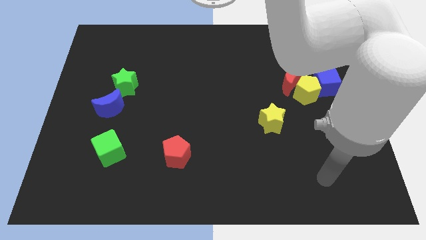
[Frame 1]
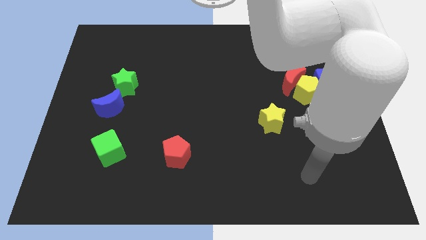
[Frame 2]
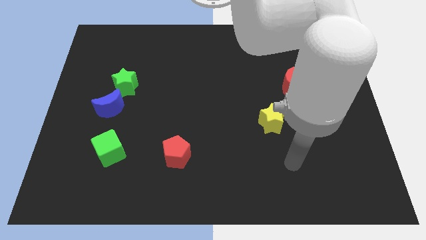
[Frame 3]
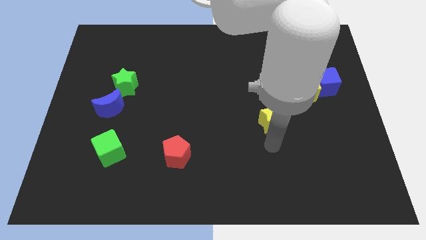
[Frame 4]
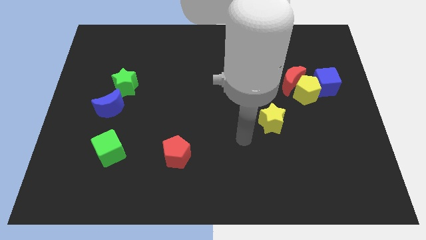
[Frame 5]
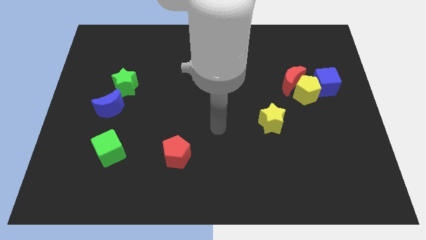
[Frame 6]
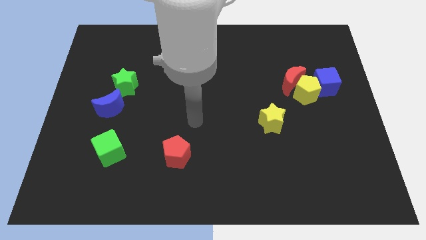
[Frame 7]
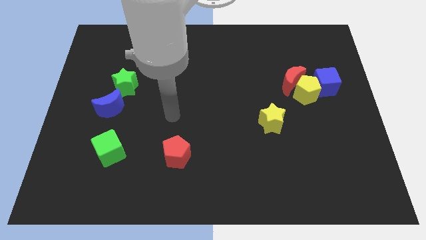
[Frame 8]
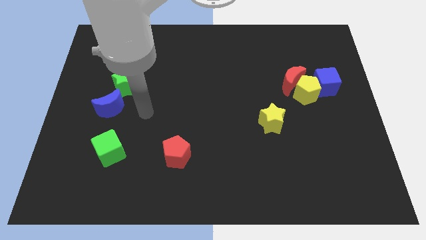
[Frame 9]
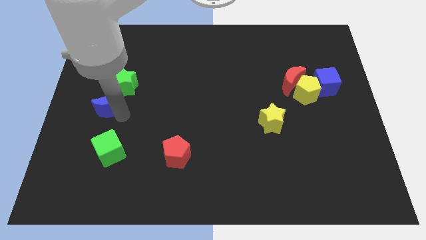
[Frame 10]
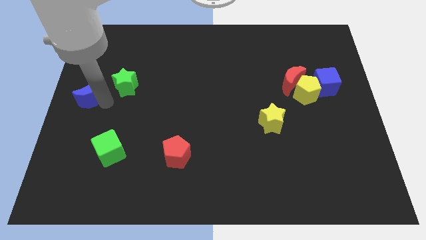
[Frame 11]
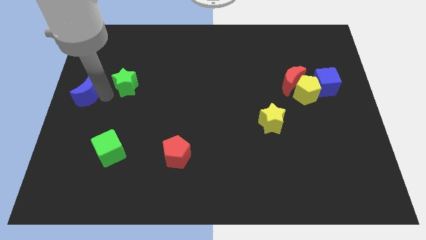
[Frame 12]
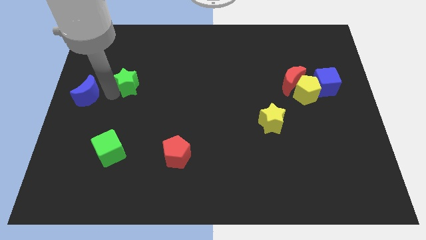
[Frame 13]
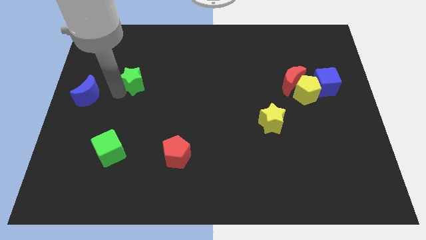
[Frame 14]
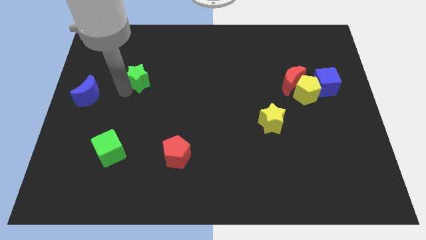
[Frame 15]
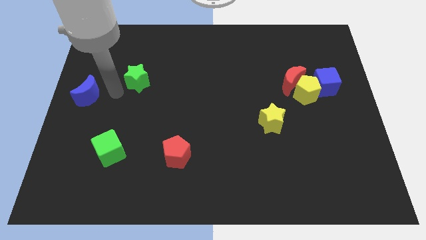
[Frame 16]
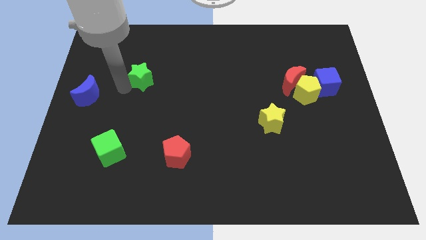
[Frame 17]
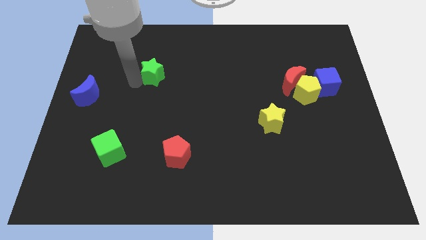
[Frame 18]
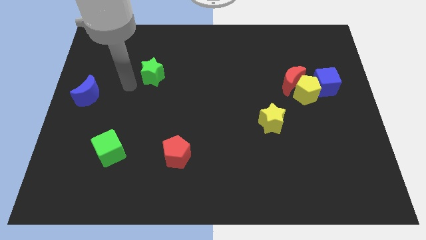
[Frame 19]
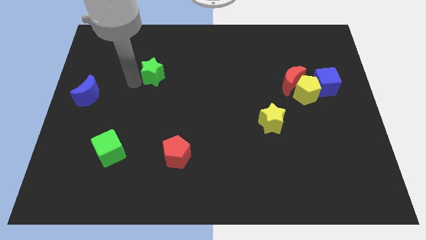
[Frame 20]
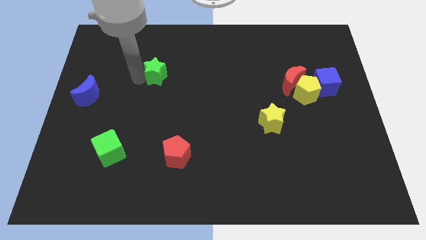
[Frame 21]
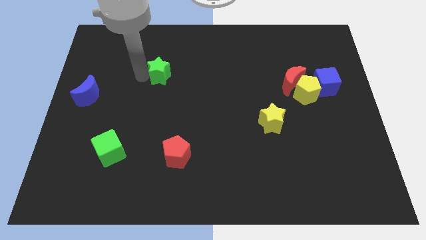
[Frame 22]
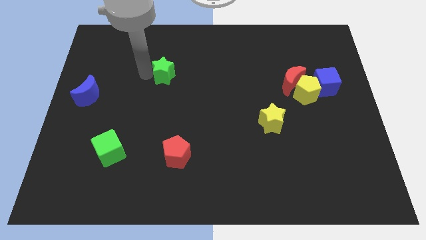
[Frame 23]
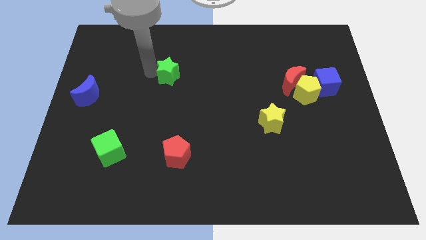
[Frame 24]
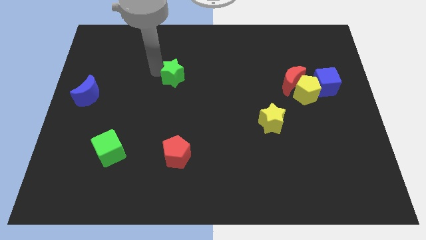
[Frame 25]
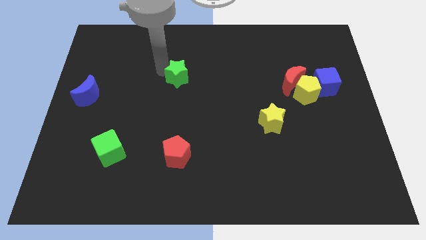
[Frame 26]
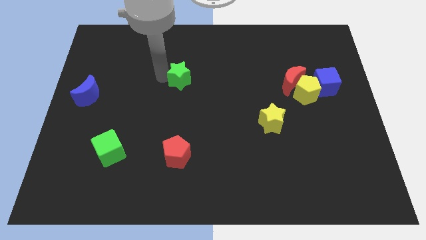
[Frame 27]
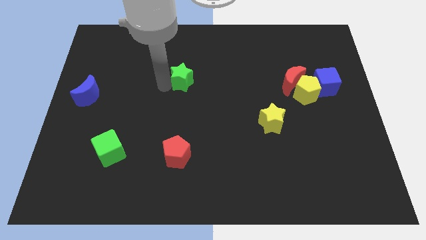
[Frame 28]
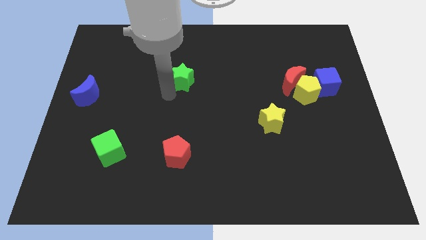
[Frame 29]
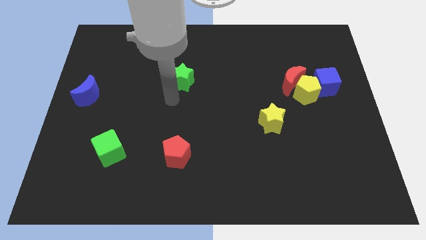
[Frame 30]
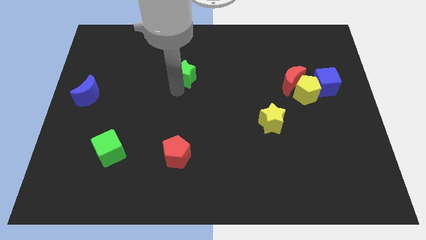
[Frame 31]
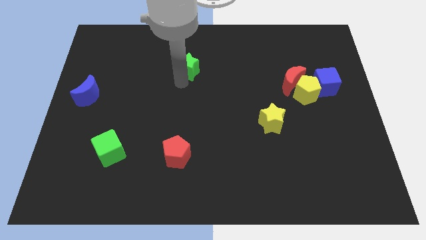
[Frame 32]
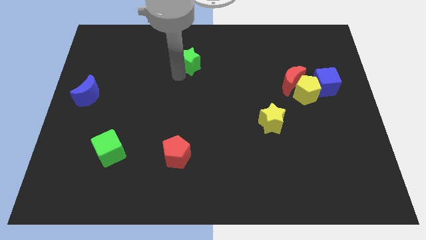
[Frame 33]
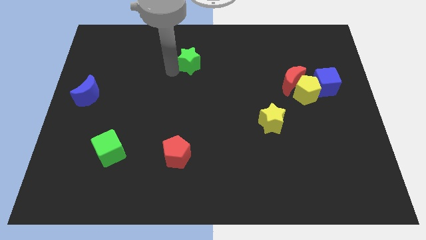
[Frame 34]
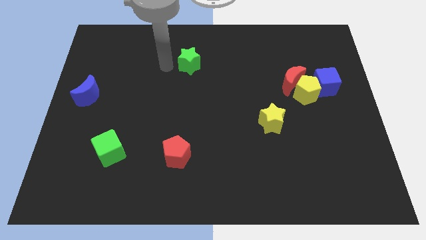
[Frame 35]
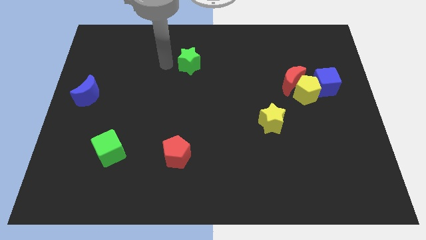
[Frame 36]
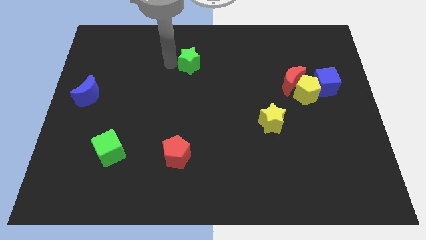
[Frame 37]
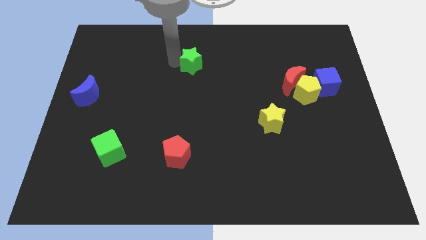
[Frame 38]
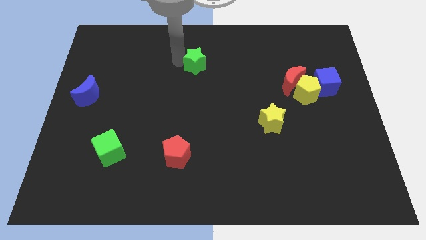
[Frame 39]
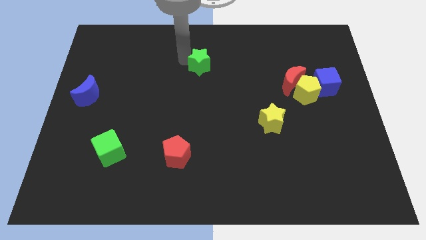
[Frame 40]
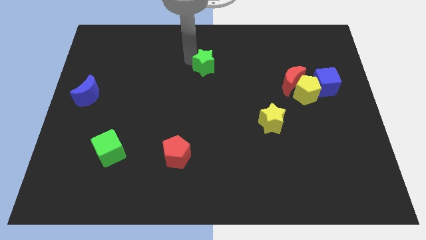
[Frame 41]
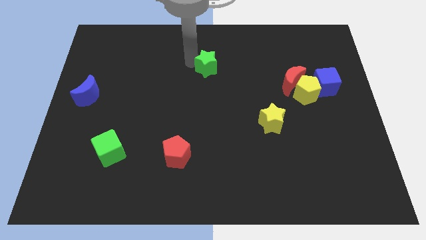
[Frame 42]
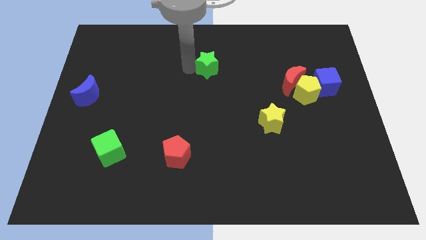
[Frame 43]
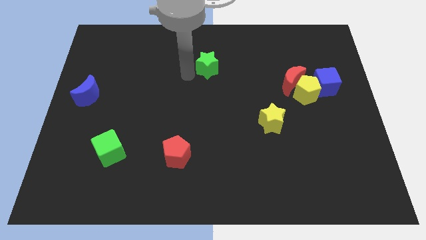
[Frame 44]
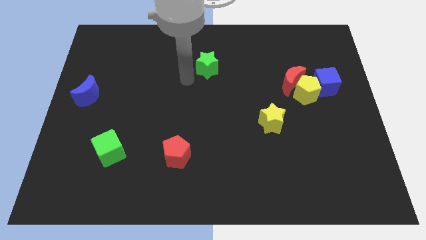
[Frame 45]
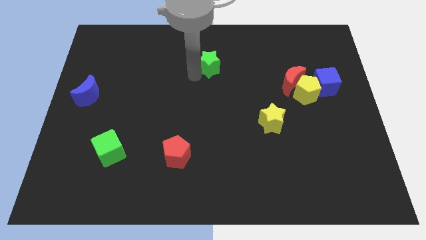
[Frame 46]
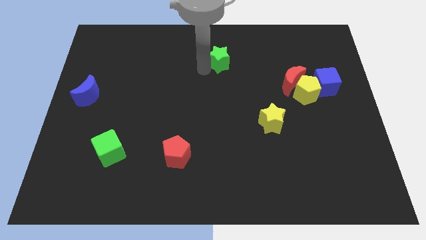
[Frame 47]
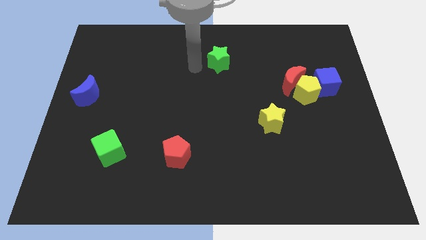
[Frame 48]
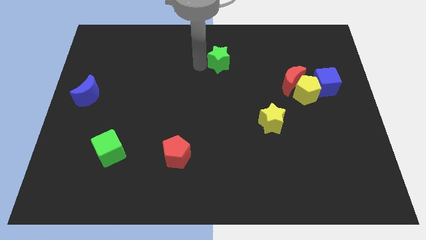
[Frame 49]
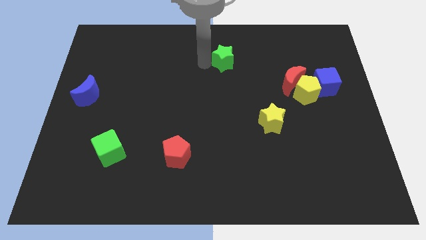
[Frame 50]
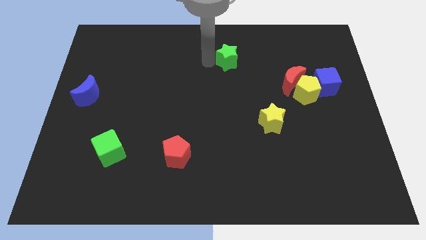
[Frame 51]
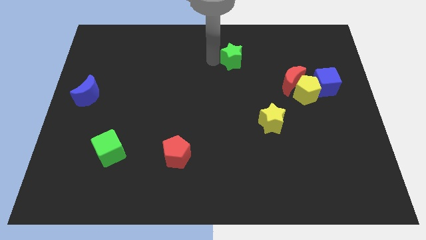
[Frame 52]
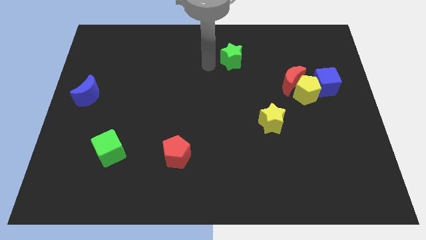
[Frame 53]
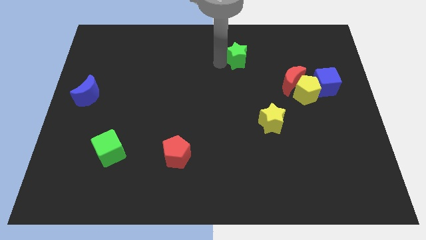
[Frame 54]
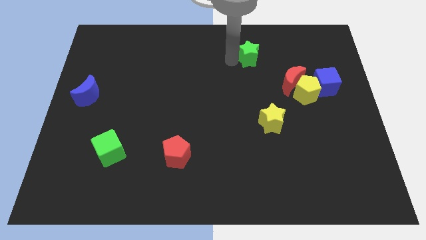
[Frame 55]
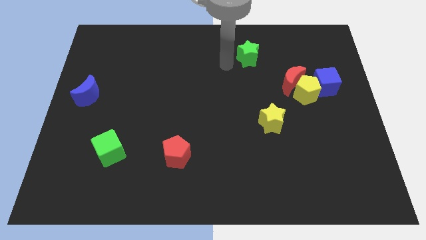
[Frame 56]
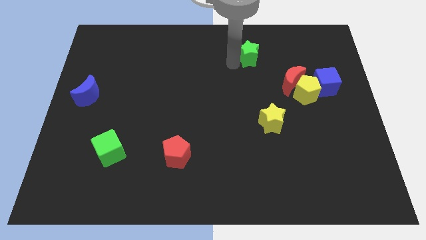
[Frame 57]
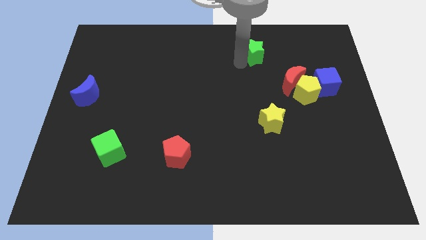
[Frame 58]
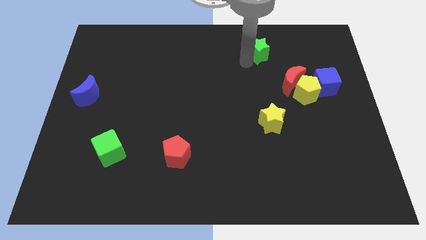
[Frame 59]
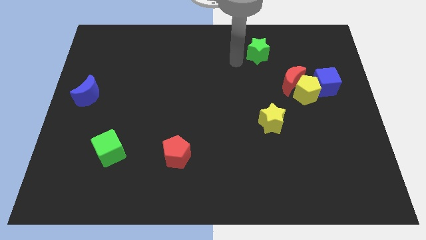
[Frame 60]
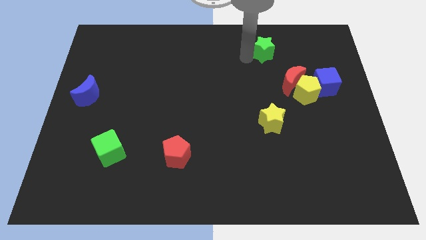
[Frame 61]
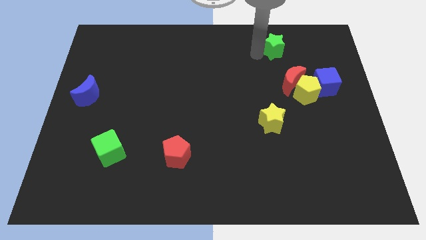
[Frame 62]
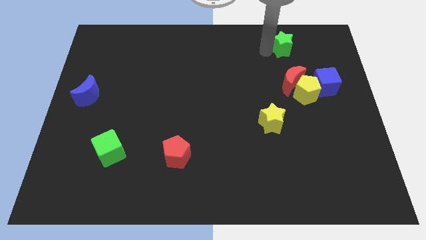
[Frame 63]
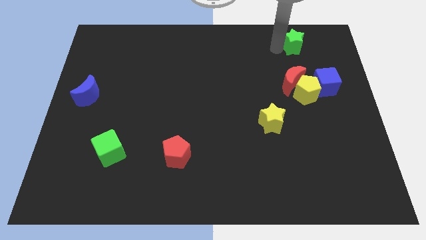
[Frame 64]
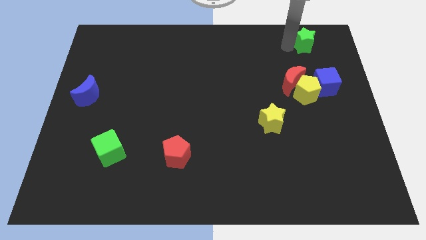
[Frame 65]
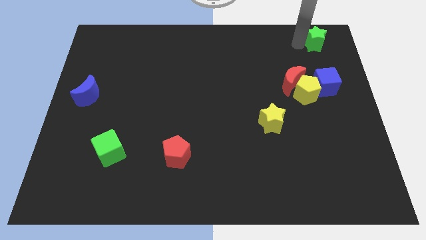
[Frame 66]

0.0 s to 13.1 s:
slide the green star to the top right corner
